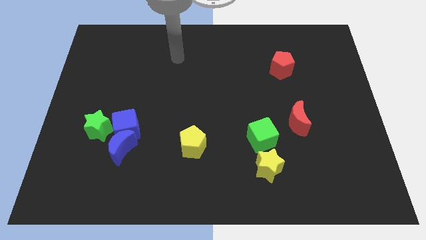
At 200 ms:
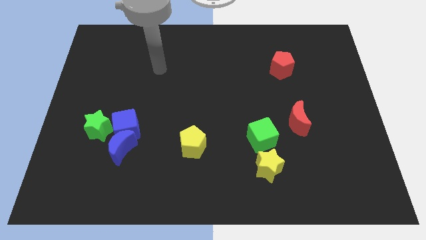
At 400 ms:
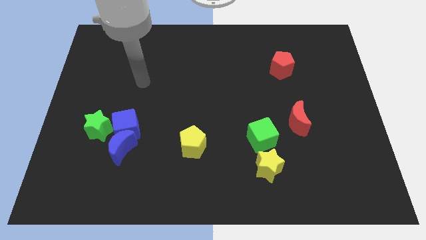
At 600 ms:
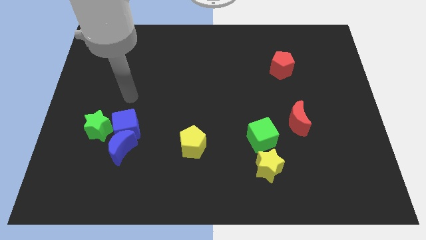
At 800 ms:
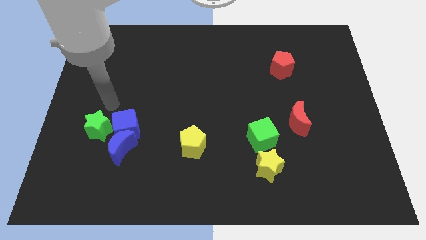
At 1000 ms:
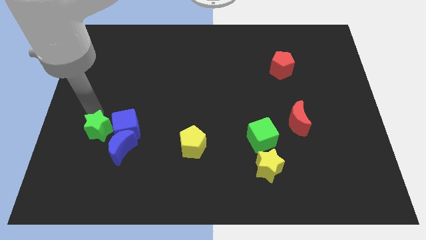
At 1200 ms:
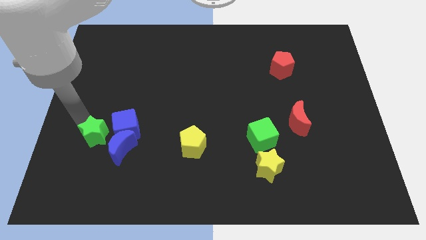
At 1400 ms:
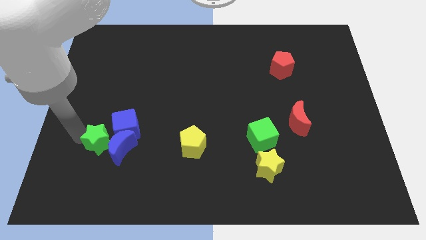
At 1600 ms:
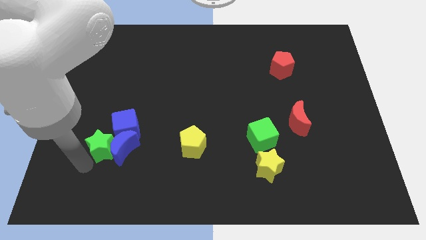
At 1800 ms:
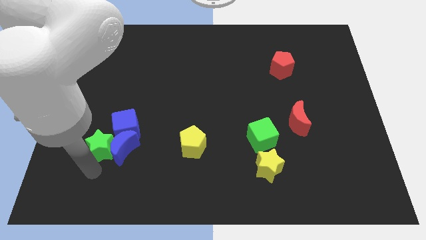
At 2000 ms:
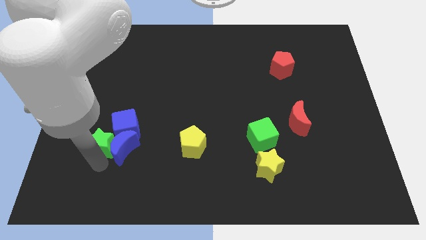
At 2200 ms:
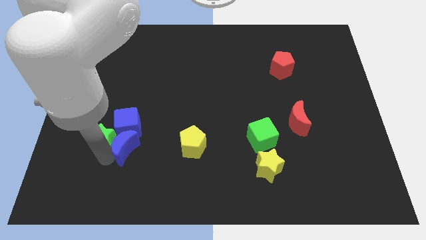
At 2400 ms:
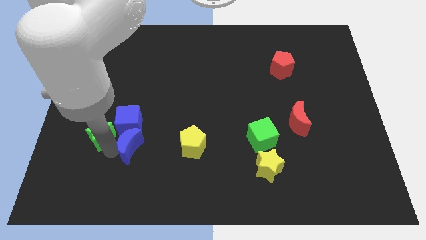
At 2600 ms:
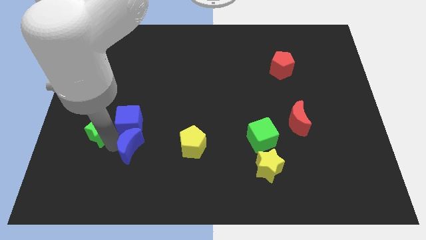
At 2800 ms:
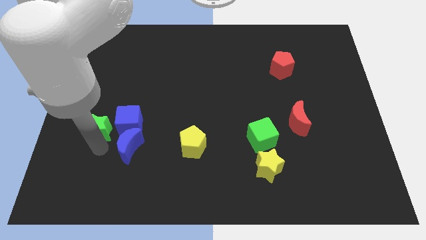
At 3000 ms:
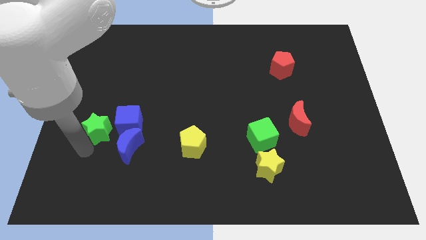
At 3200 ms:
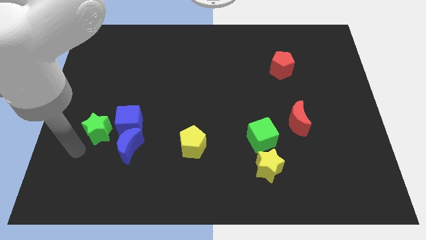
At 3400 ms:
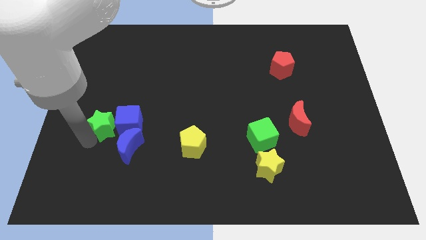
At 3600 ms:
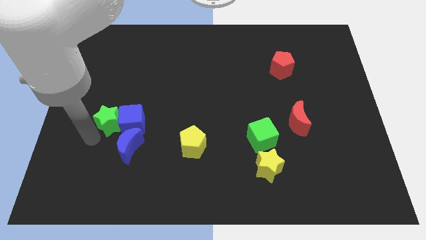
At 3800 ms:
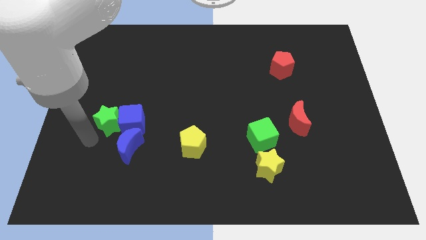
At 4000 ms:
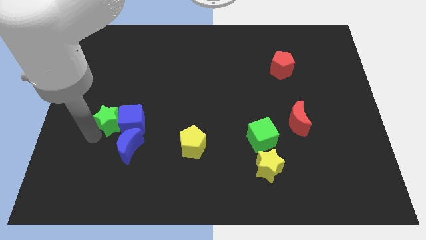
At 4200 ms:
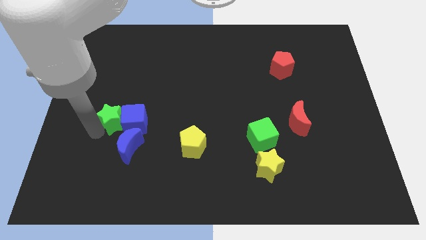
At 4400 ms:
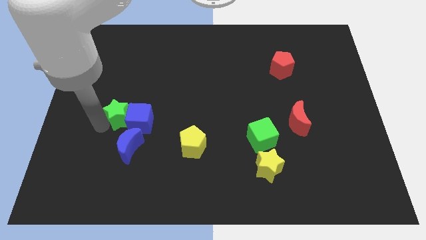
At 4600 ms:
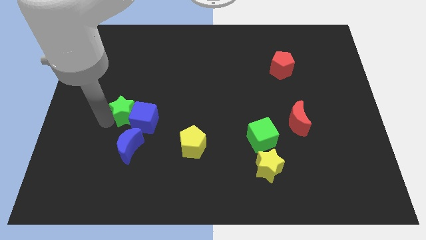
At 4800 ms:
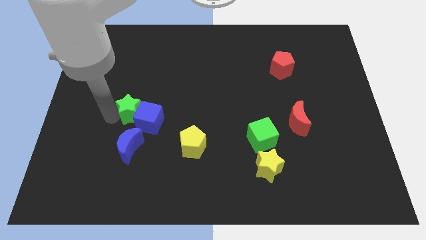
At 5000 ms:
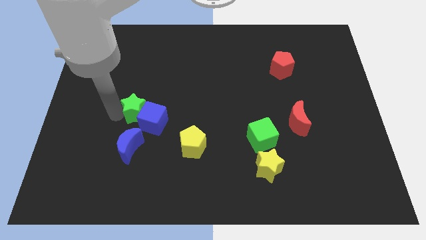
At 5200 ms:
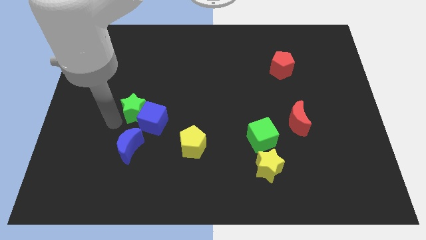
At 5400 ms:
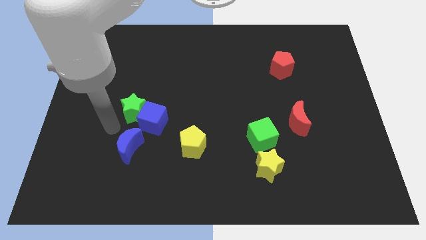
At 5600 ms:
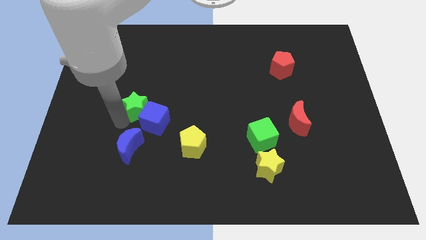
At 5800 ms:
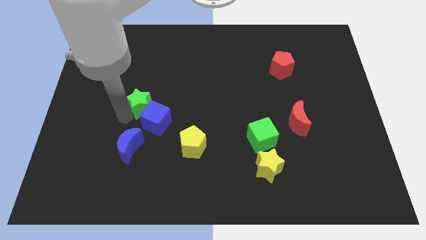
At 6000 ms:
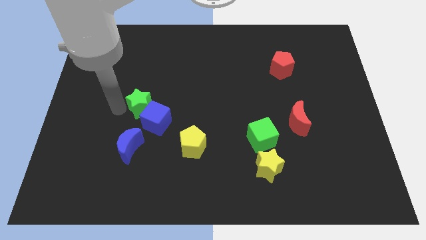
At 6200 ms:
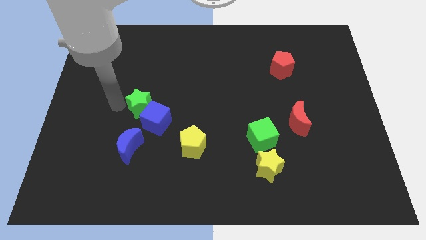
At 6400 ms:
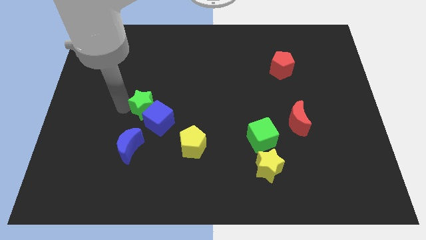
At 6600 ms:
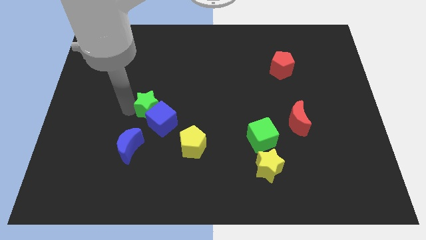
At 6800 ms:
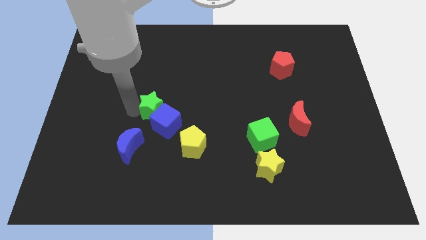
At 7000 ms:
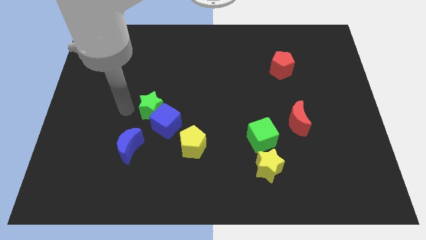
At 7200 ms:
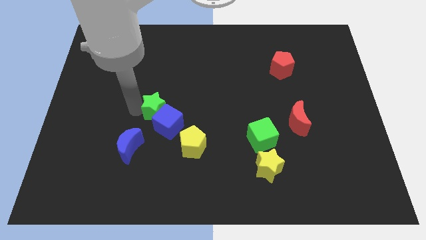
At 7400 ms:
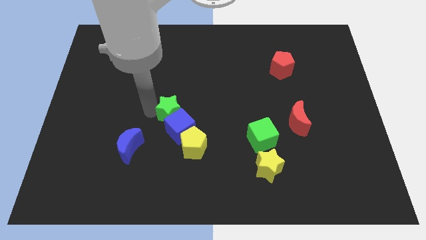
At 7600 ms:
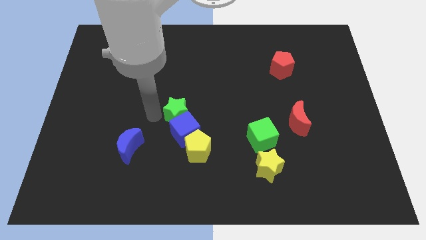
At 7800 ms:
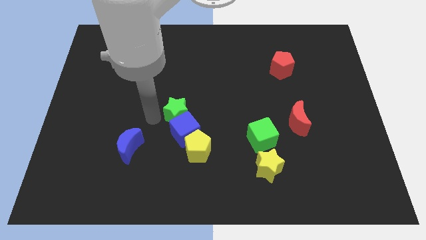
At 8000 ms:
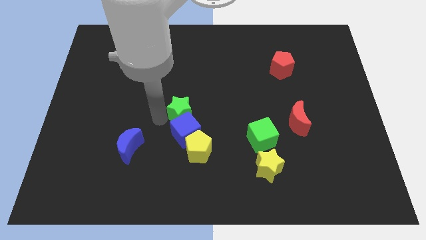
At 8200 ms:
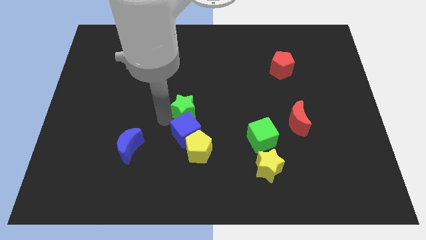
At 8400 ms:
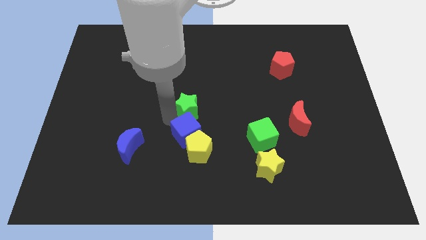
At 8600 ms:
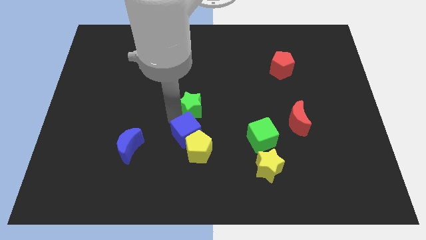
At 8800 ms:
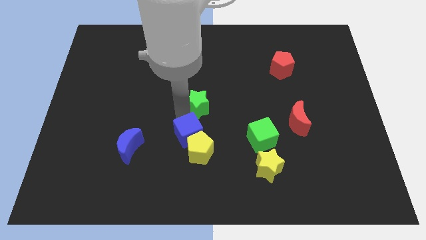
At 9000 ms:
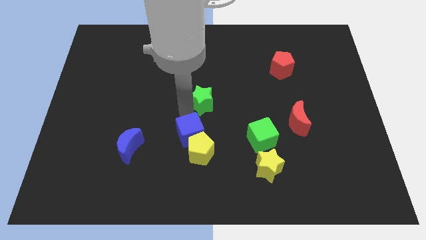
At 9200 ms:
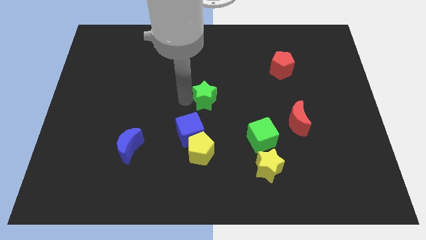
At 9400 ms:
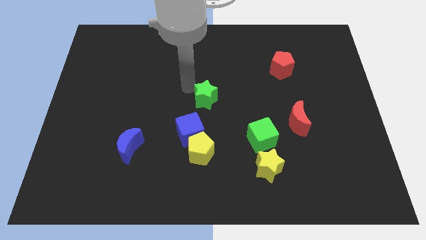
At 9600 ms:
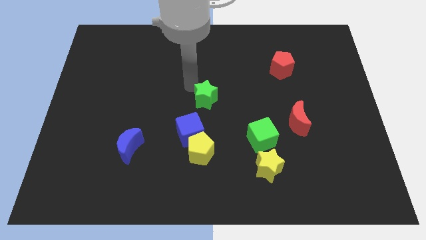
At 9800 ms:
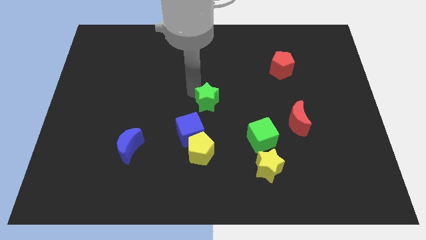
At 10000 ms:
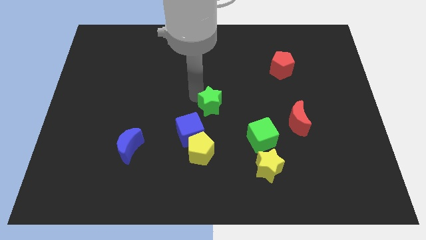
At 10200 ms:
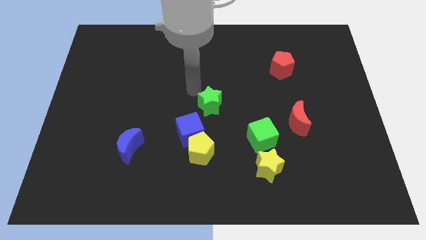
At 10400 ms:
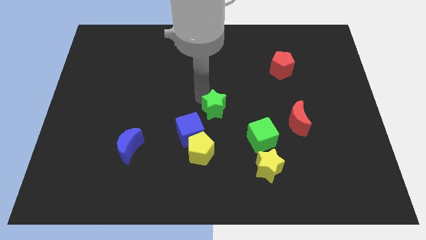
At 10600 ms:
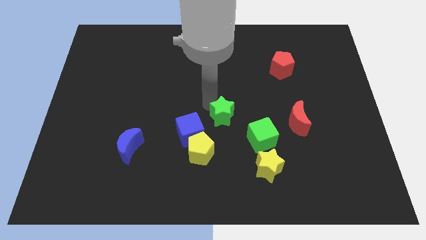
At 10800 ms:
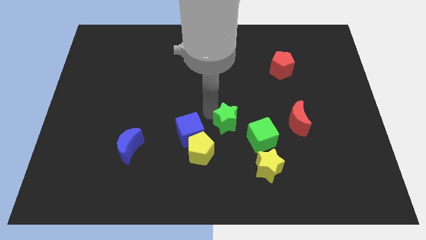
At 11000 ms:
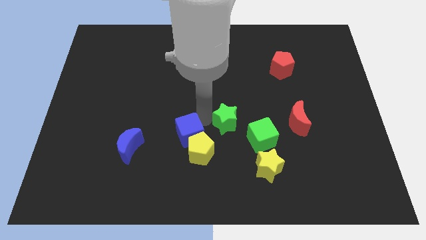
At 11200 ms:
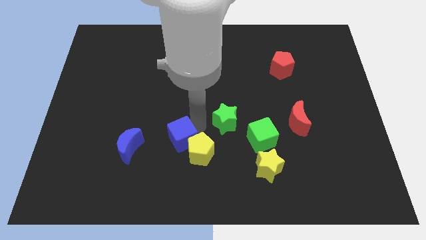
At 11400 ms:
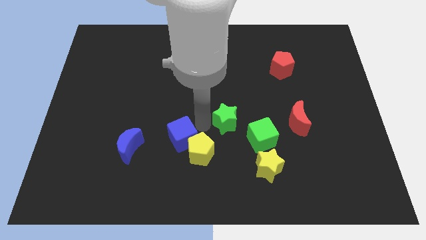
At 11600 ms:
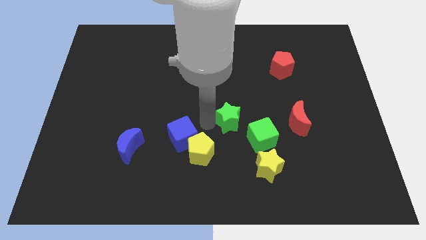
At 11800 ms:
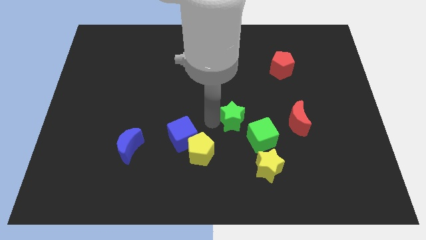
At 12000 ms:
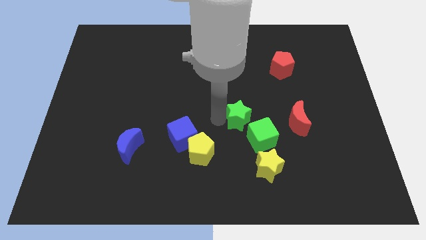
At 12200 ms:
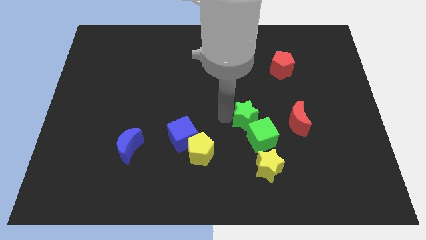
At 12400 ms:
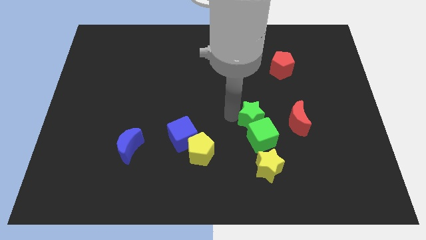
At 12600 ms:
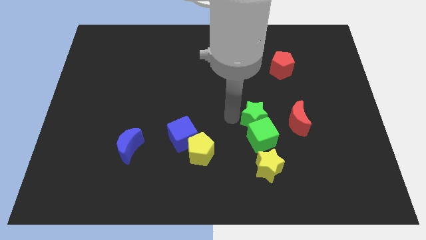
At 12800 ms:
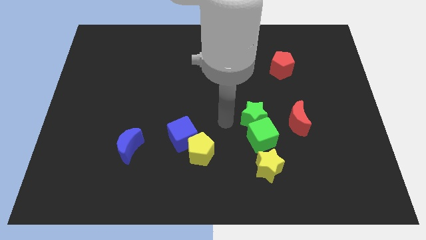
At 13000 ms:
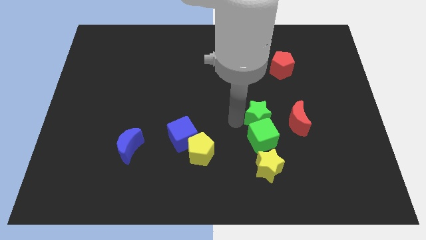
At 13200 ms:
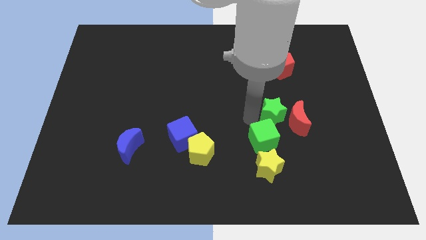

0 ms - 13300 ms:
put the green star next to the red moon

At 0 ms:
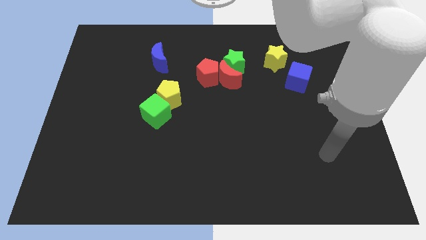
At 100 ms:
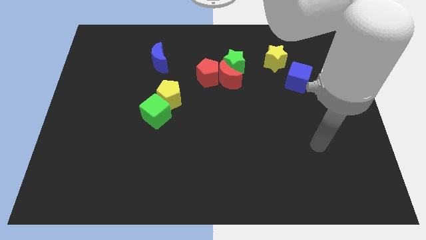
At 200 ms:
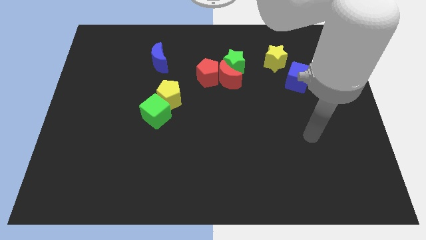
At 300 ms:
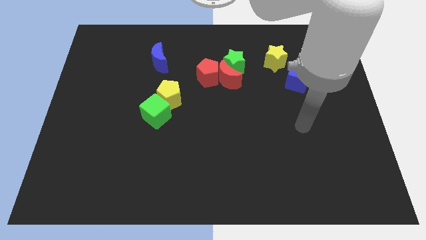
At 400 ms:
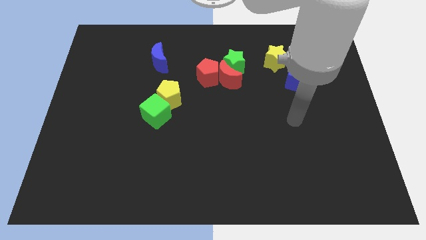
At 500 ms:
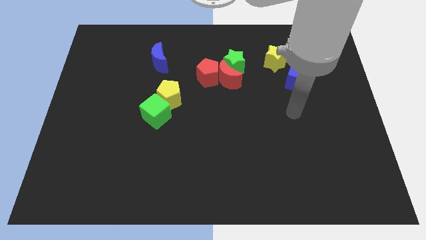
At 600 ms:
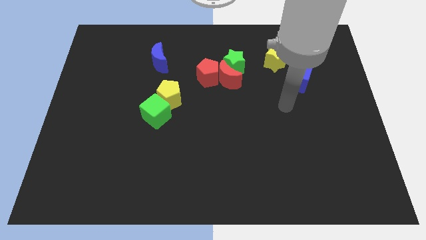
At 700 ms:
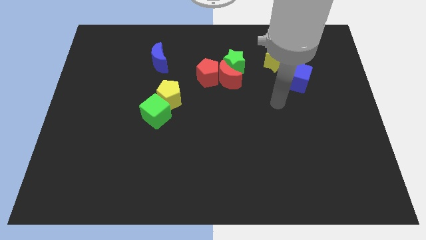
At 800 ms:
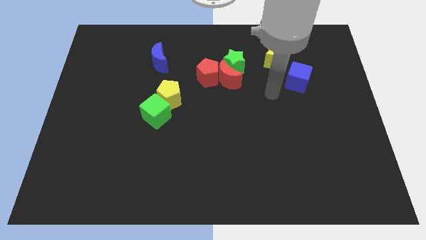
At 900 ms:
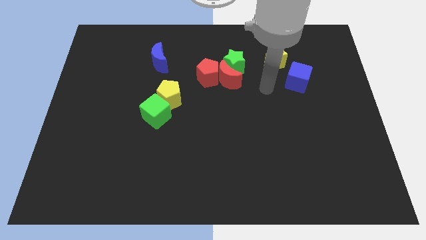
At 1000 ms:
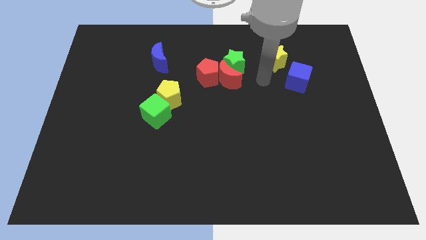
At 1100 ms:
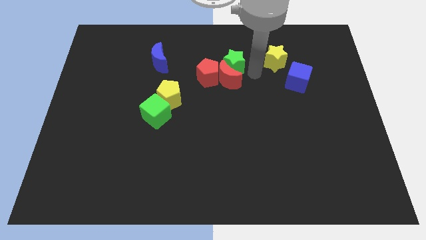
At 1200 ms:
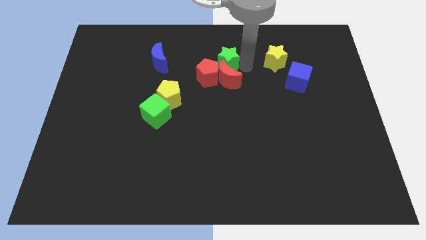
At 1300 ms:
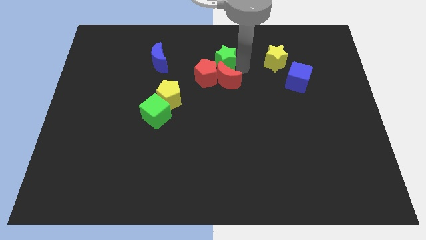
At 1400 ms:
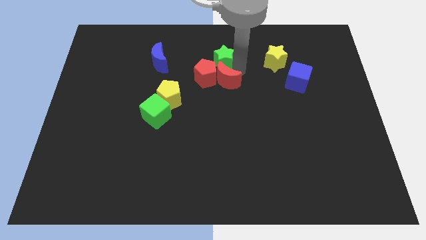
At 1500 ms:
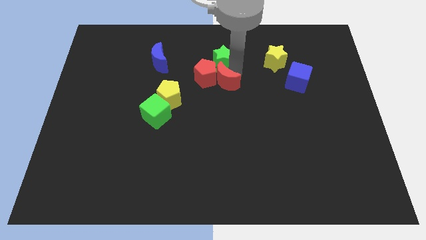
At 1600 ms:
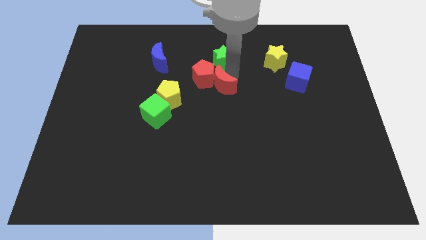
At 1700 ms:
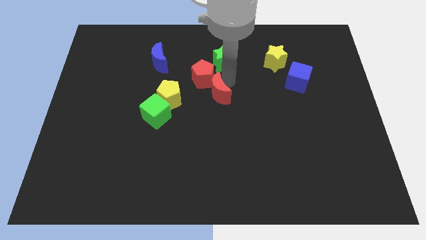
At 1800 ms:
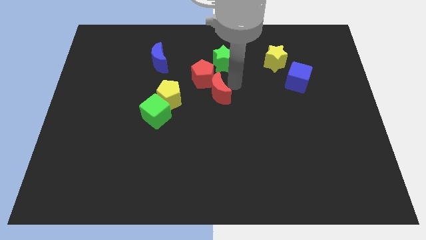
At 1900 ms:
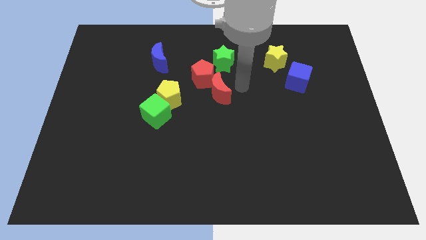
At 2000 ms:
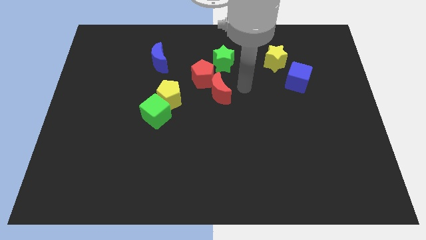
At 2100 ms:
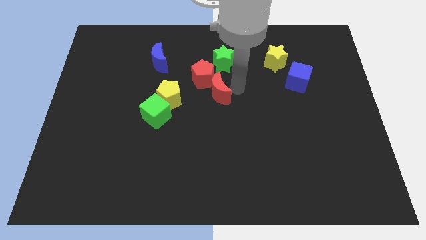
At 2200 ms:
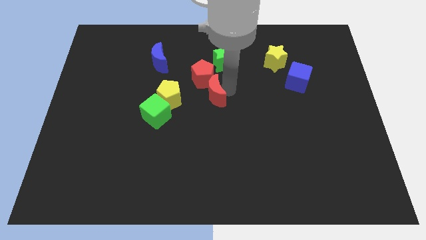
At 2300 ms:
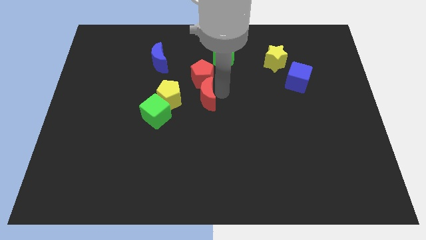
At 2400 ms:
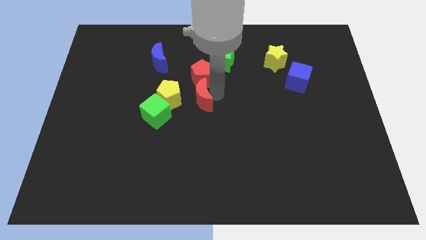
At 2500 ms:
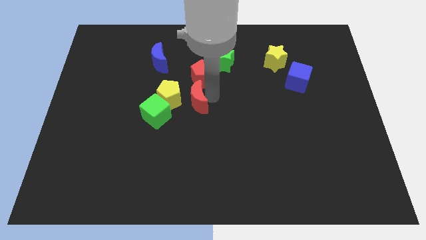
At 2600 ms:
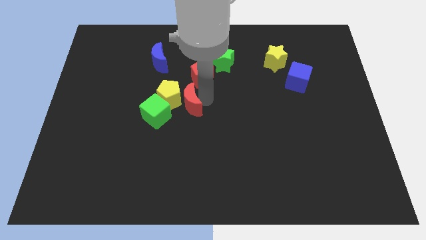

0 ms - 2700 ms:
slide the red moon next to the yellow pentagon
